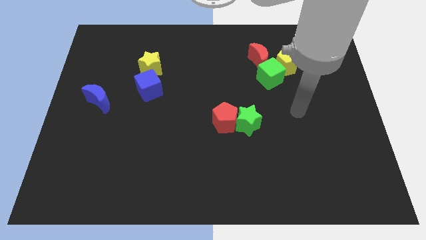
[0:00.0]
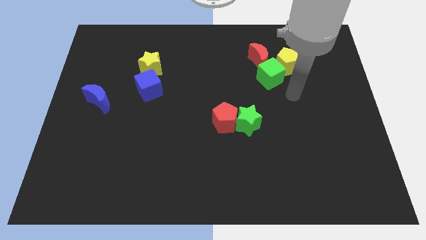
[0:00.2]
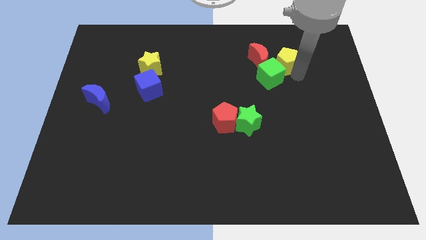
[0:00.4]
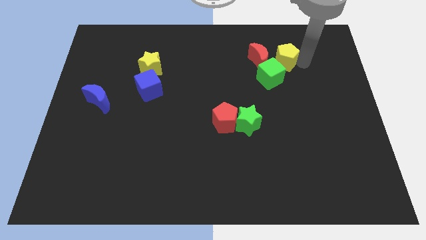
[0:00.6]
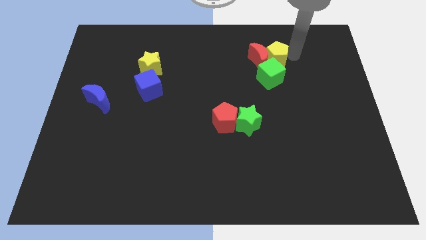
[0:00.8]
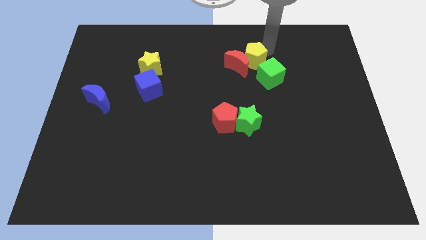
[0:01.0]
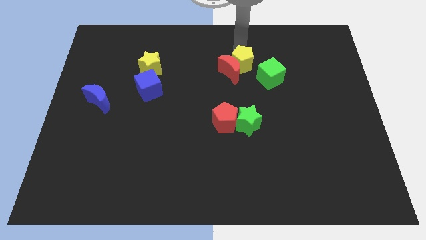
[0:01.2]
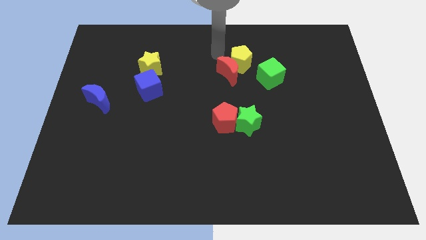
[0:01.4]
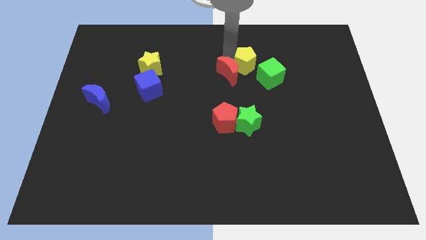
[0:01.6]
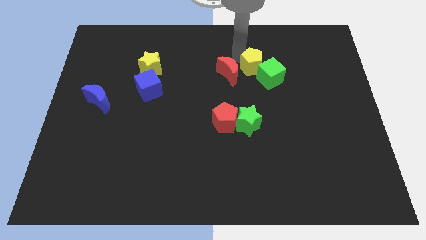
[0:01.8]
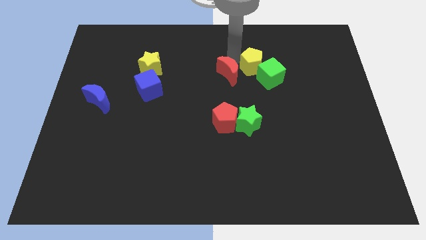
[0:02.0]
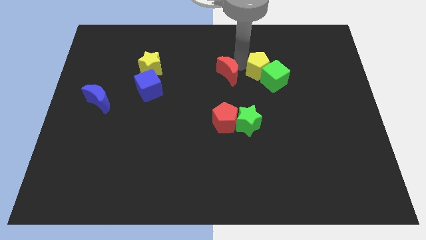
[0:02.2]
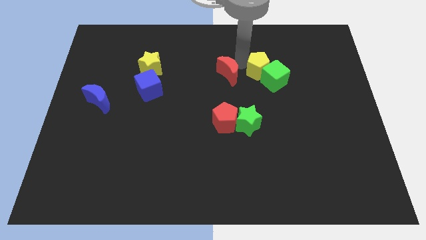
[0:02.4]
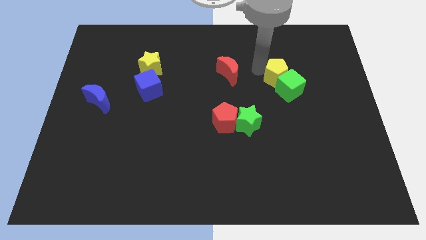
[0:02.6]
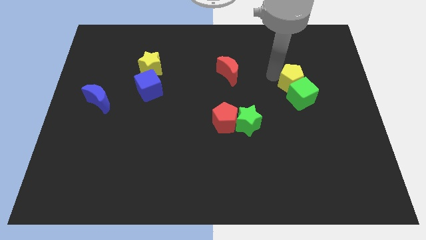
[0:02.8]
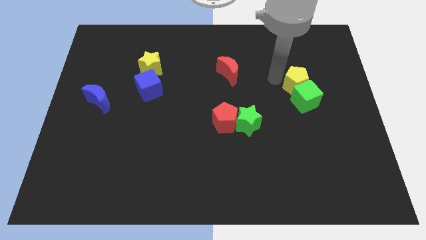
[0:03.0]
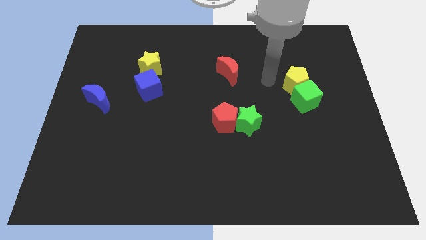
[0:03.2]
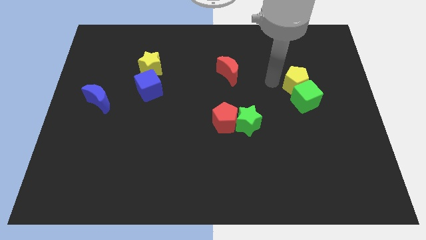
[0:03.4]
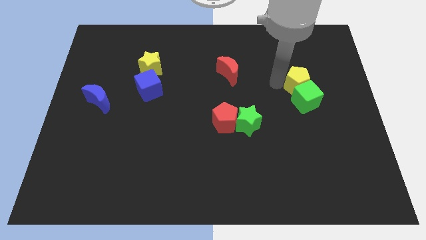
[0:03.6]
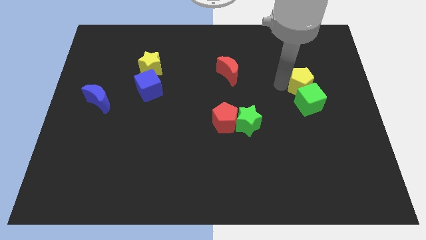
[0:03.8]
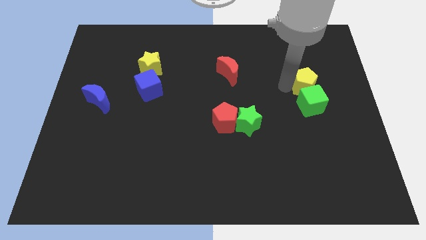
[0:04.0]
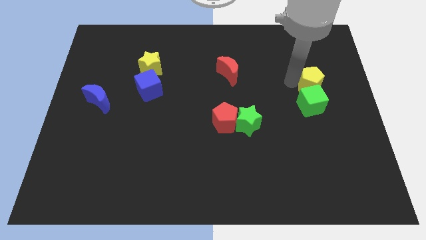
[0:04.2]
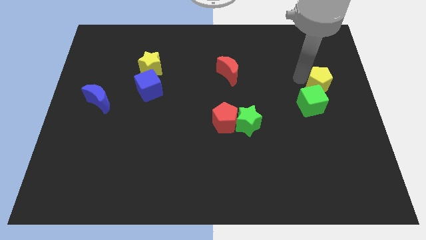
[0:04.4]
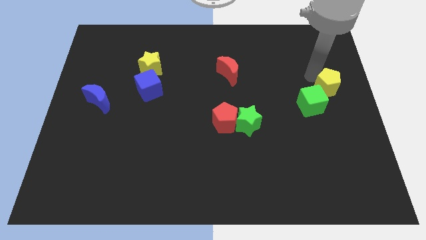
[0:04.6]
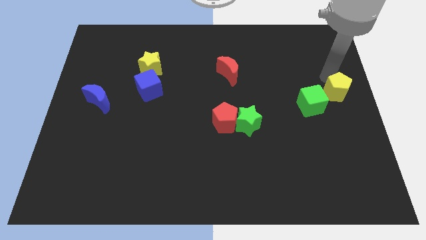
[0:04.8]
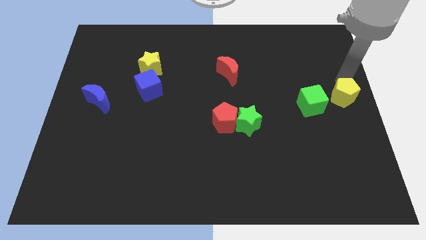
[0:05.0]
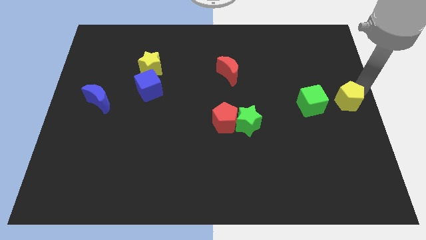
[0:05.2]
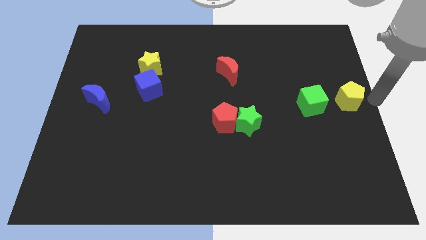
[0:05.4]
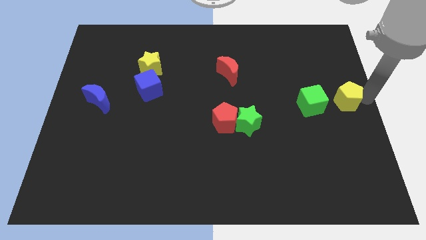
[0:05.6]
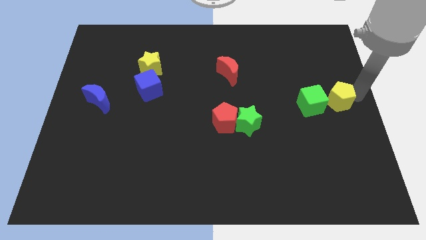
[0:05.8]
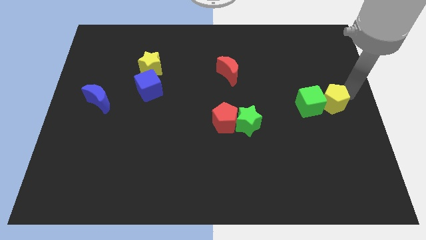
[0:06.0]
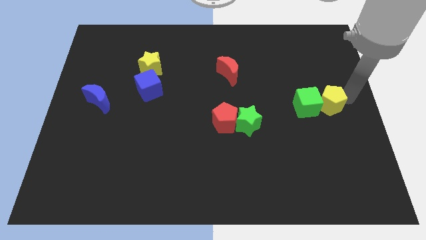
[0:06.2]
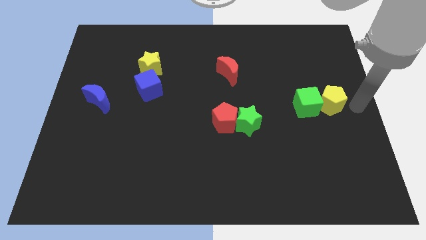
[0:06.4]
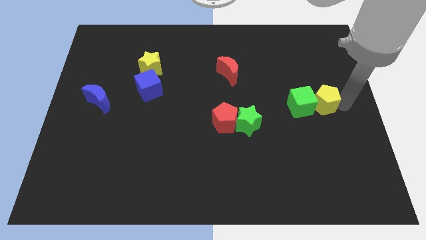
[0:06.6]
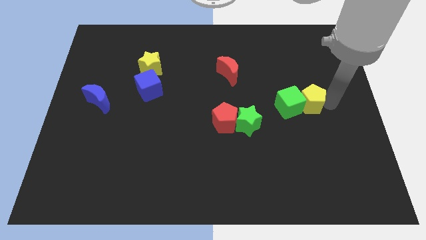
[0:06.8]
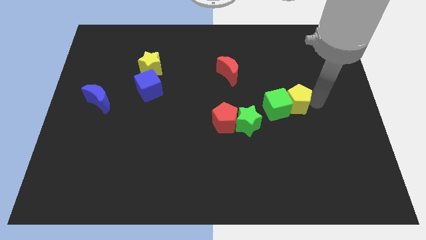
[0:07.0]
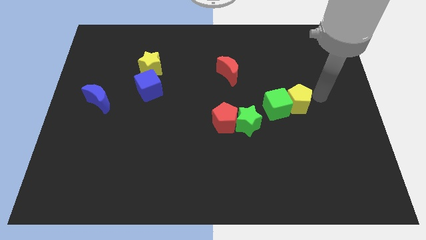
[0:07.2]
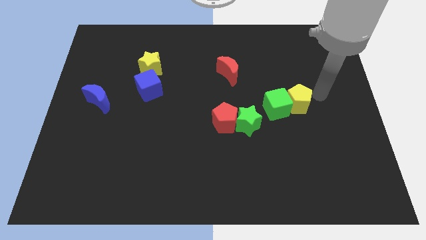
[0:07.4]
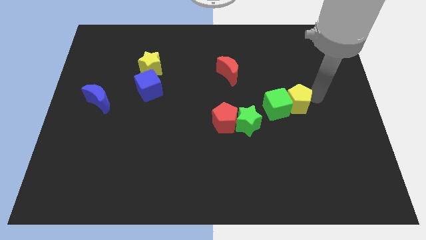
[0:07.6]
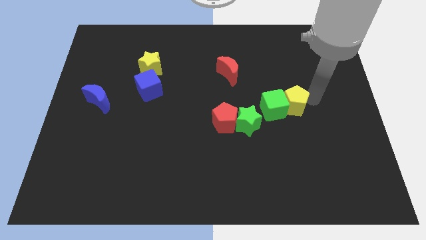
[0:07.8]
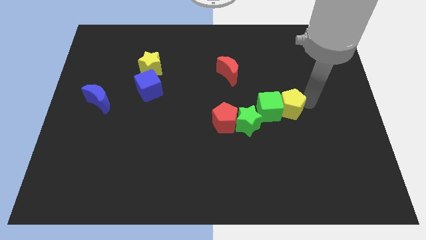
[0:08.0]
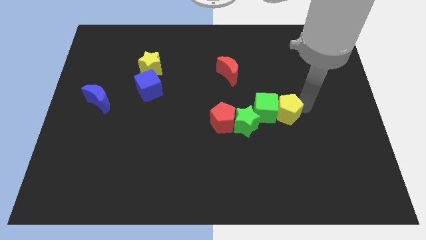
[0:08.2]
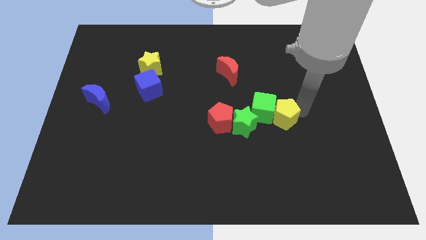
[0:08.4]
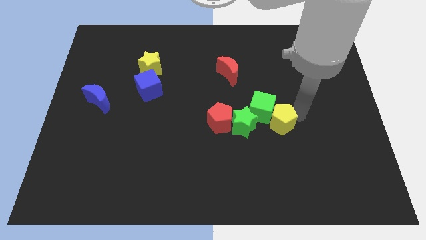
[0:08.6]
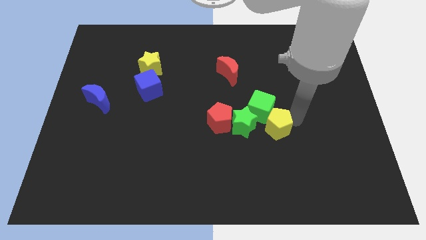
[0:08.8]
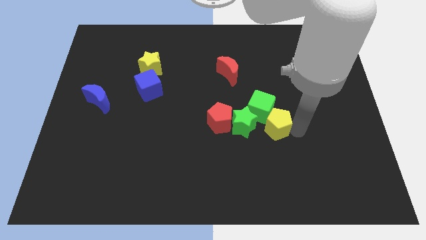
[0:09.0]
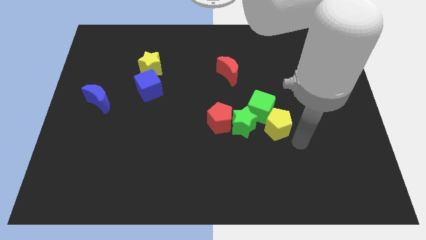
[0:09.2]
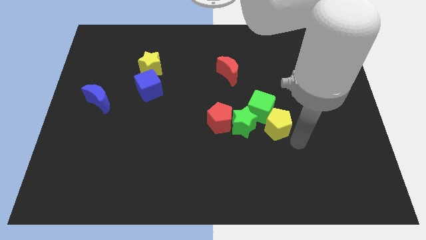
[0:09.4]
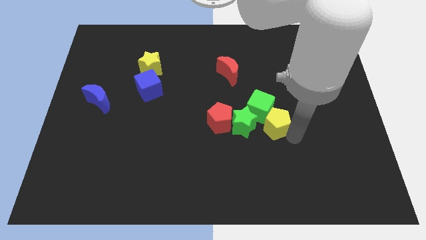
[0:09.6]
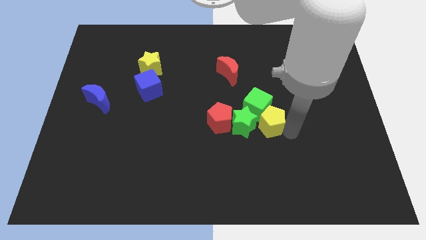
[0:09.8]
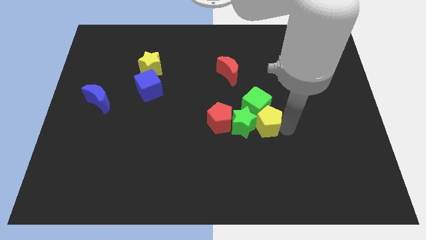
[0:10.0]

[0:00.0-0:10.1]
slide the yellow pentagon next to the green star

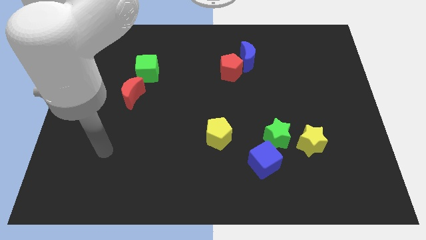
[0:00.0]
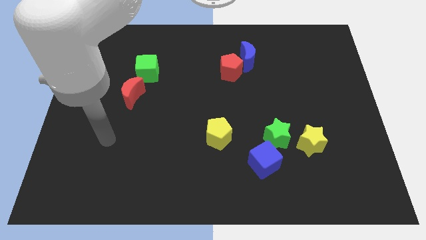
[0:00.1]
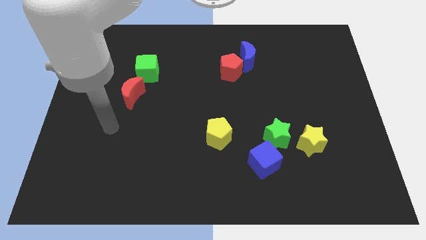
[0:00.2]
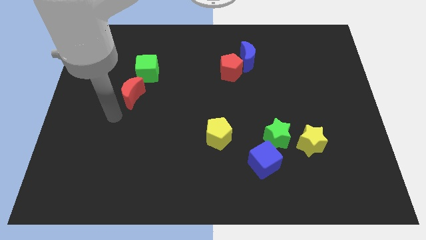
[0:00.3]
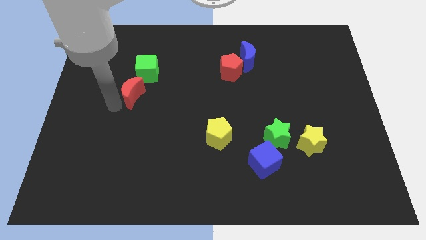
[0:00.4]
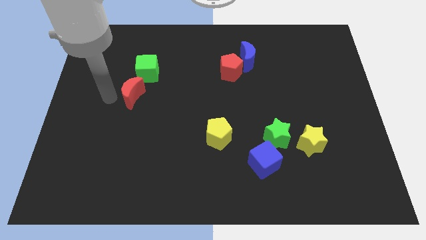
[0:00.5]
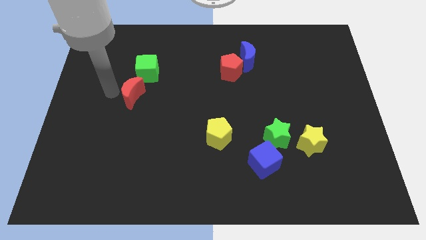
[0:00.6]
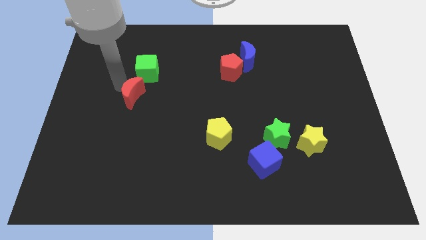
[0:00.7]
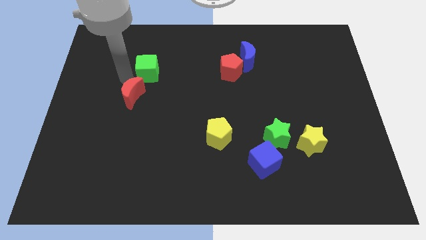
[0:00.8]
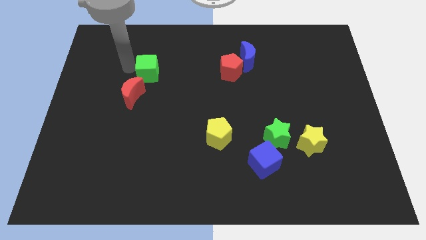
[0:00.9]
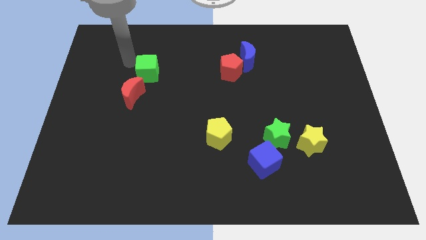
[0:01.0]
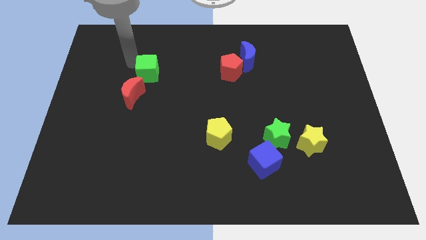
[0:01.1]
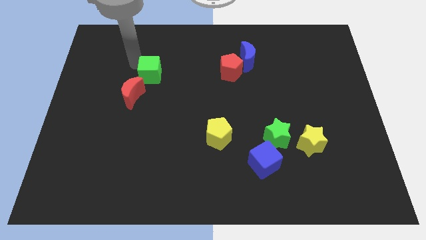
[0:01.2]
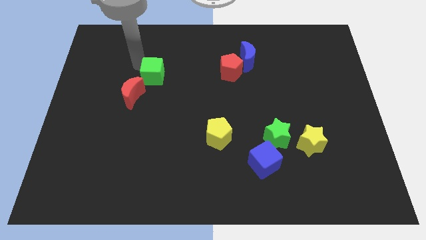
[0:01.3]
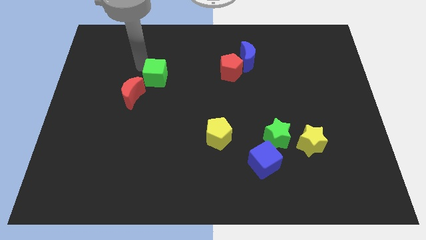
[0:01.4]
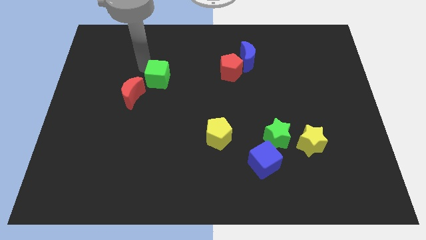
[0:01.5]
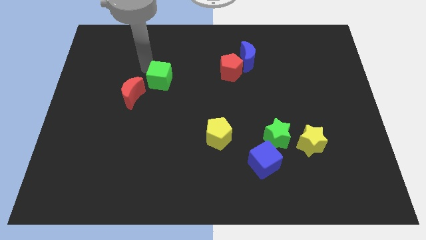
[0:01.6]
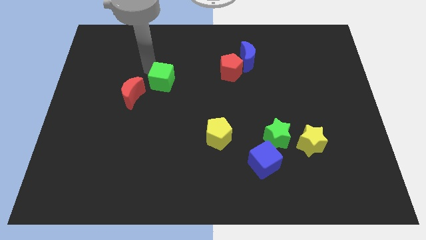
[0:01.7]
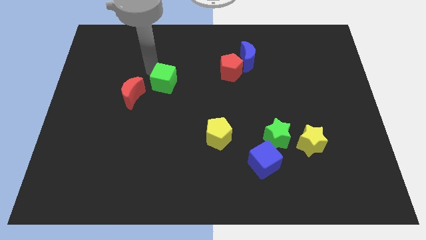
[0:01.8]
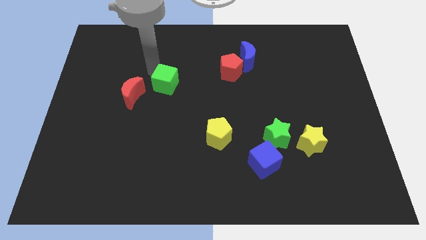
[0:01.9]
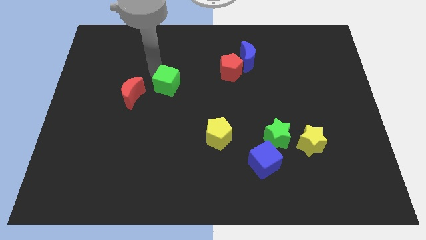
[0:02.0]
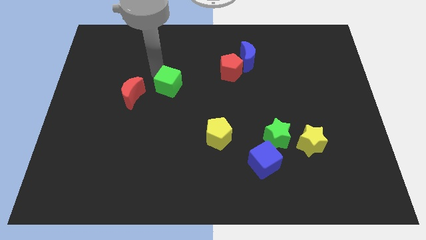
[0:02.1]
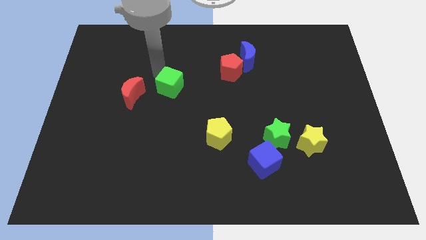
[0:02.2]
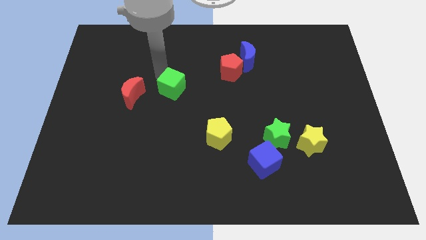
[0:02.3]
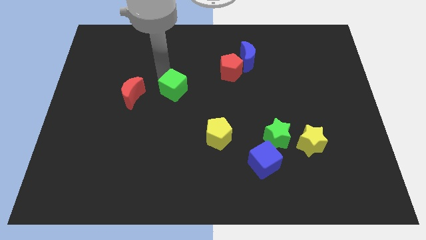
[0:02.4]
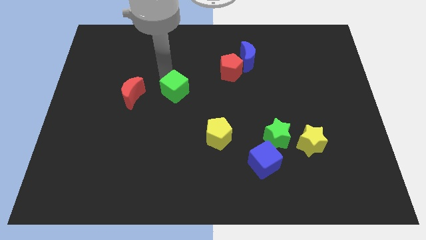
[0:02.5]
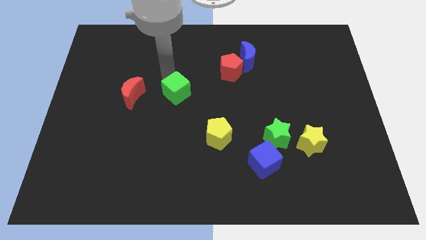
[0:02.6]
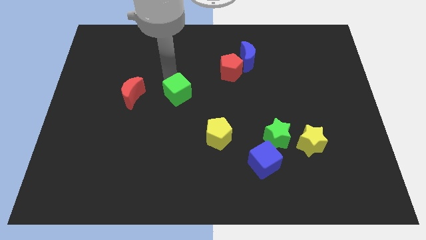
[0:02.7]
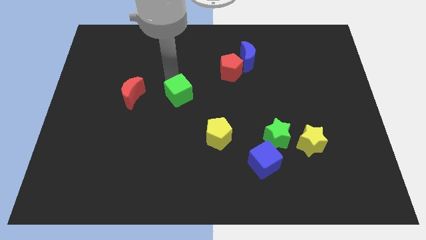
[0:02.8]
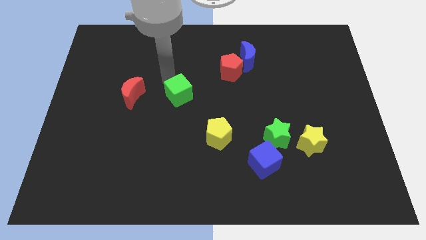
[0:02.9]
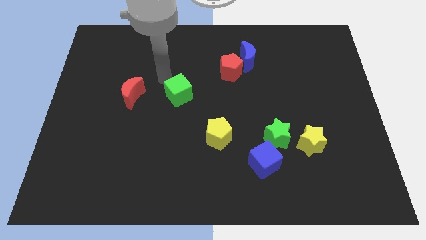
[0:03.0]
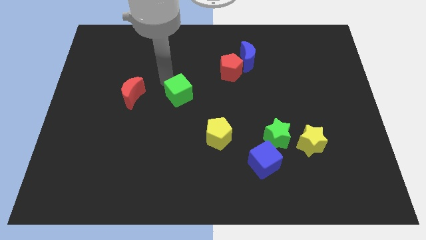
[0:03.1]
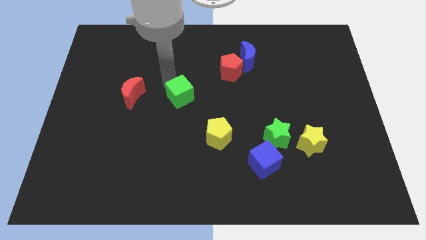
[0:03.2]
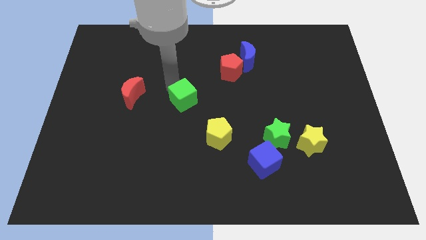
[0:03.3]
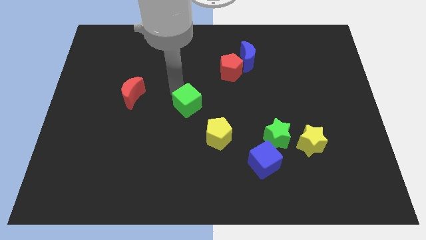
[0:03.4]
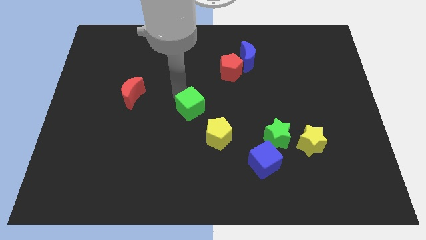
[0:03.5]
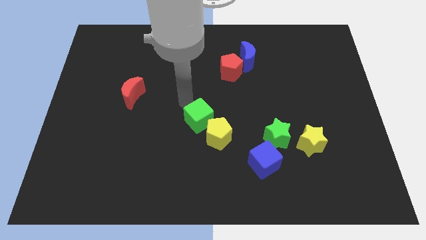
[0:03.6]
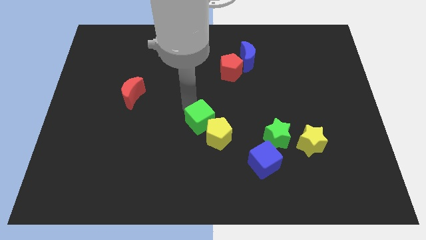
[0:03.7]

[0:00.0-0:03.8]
put the green cube to the yellow pentagon
